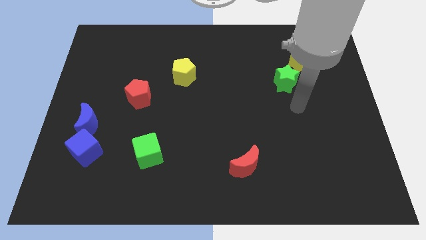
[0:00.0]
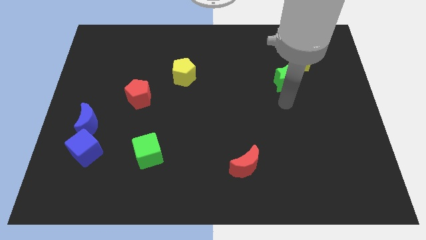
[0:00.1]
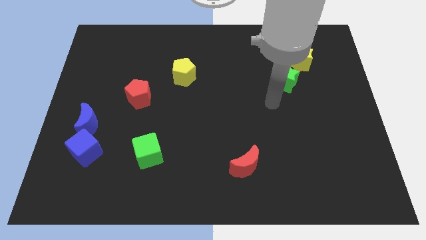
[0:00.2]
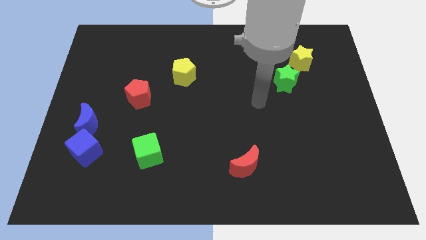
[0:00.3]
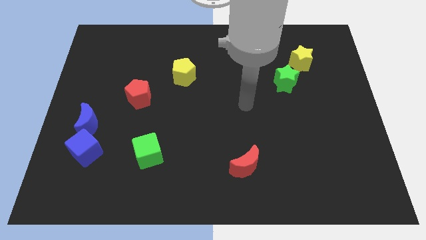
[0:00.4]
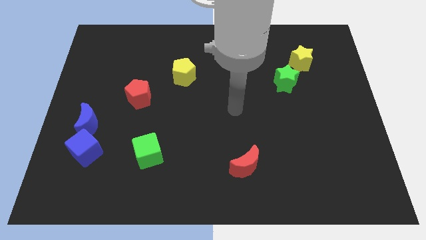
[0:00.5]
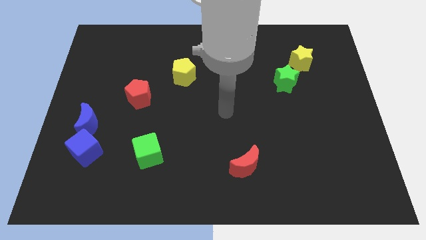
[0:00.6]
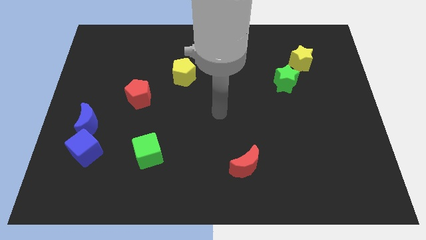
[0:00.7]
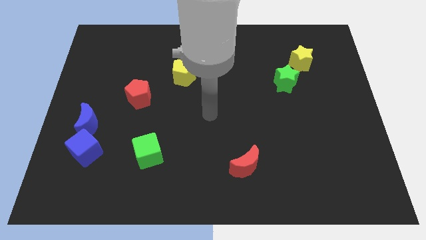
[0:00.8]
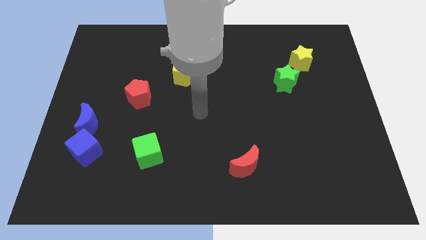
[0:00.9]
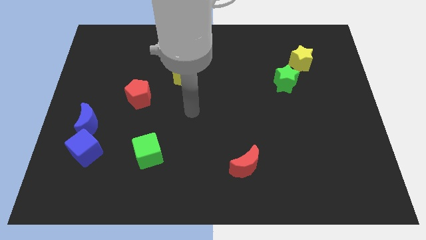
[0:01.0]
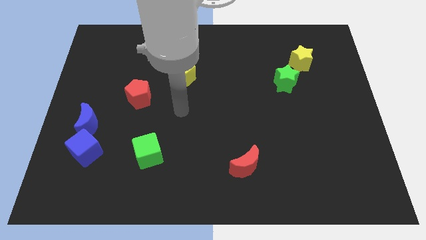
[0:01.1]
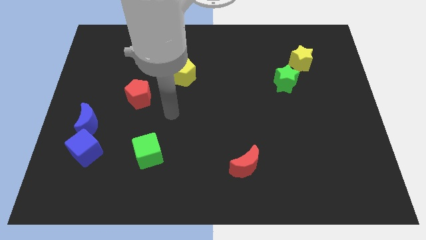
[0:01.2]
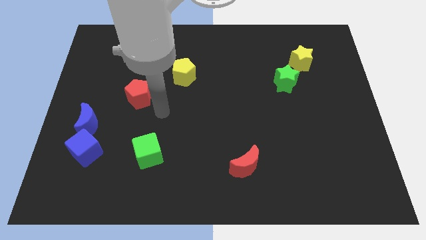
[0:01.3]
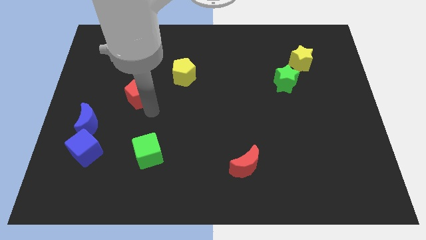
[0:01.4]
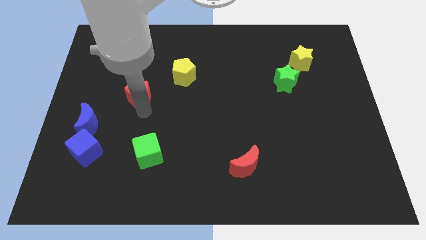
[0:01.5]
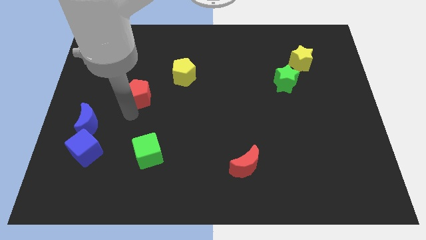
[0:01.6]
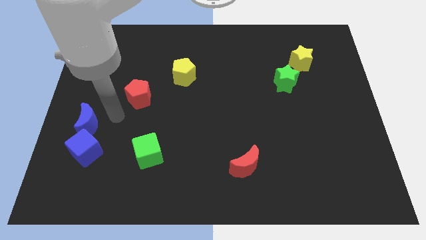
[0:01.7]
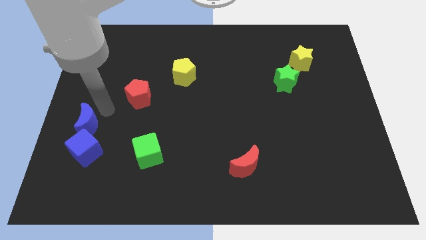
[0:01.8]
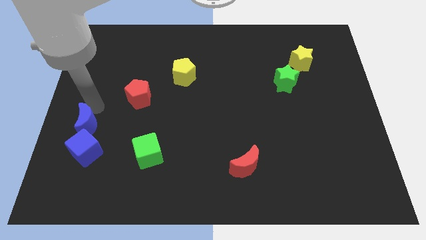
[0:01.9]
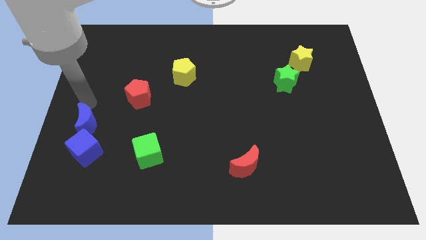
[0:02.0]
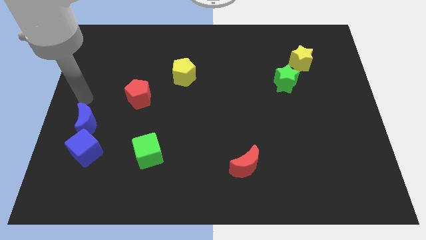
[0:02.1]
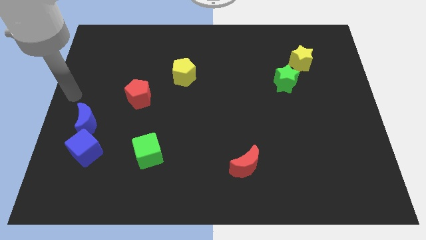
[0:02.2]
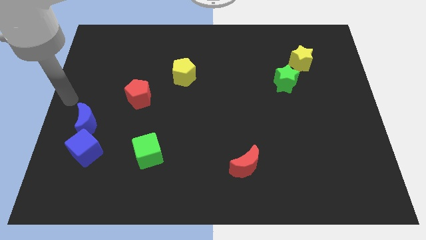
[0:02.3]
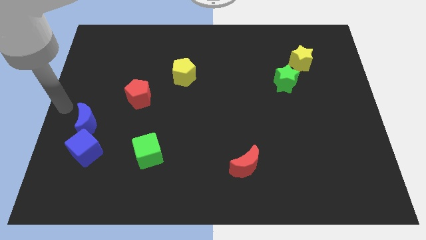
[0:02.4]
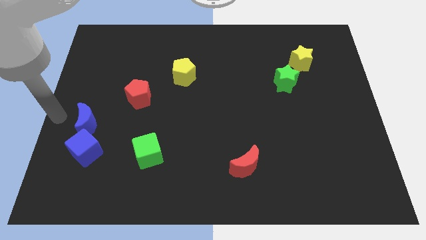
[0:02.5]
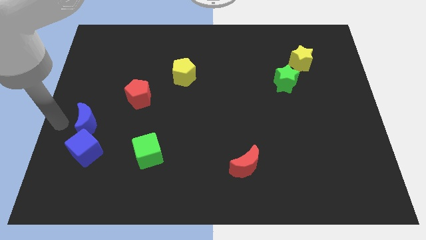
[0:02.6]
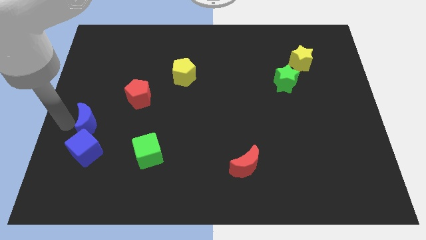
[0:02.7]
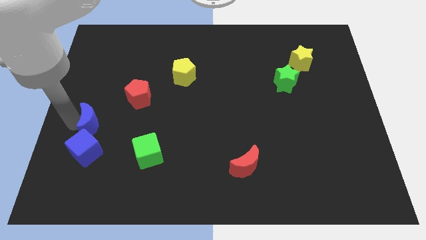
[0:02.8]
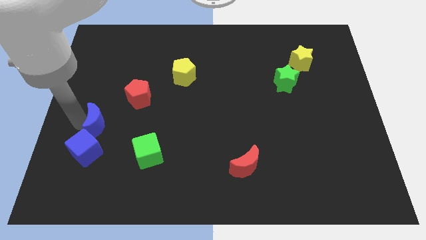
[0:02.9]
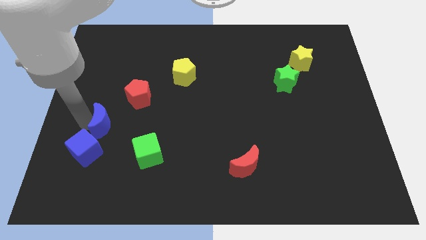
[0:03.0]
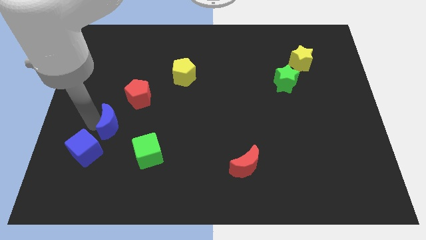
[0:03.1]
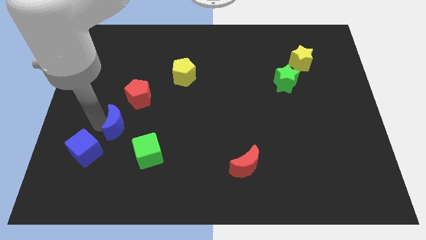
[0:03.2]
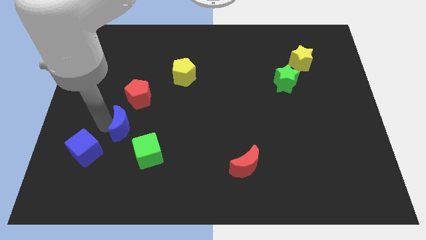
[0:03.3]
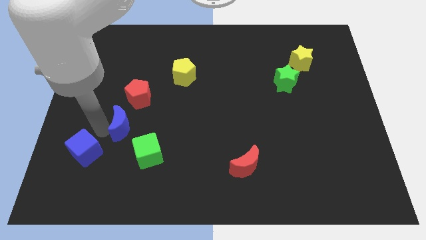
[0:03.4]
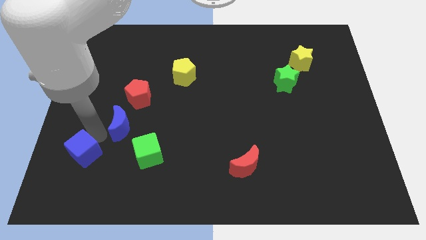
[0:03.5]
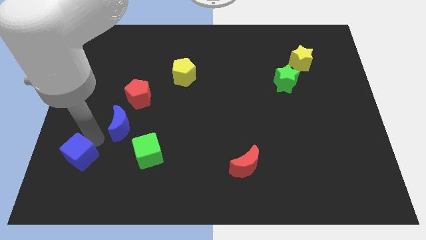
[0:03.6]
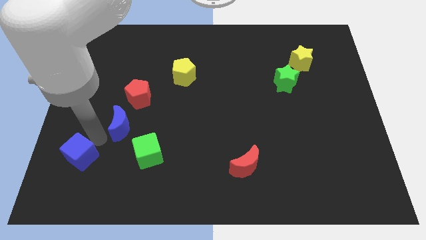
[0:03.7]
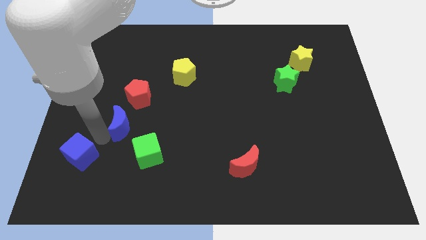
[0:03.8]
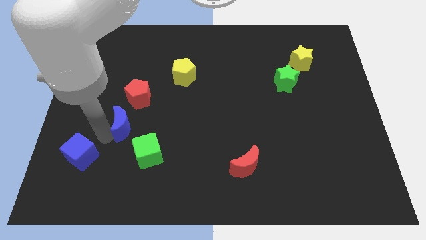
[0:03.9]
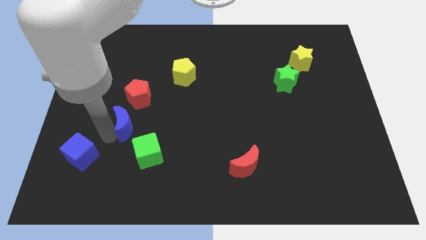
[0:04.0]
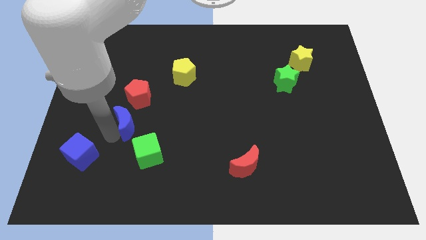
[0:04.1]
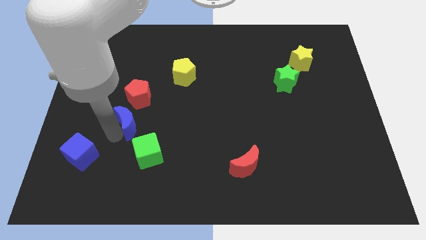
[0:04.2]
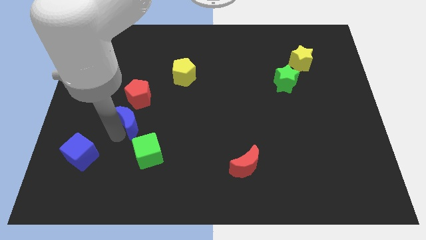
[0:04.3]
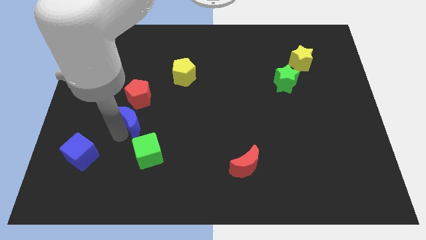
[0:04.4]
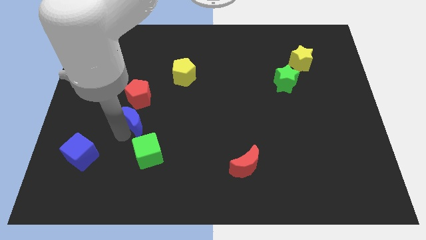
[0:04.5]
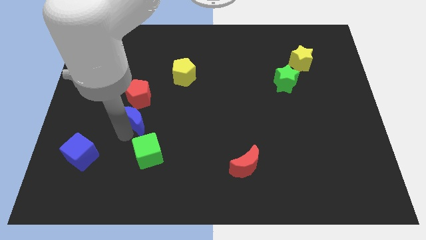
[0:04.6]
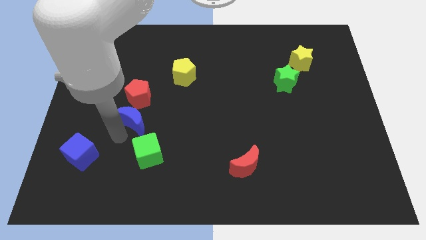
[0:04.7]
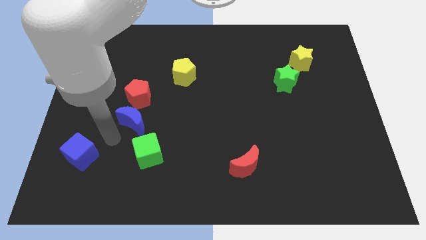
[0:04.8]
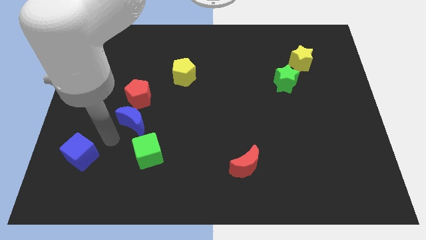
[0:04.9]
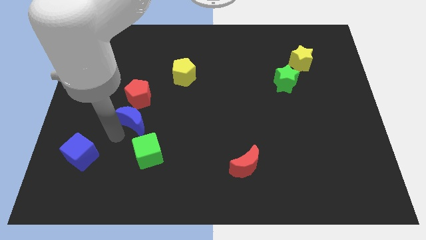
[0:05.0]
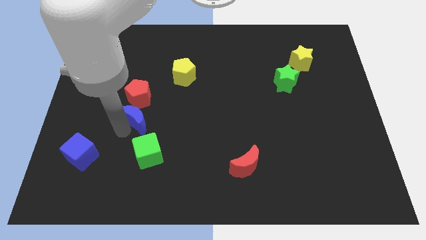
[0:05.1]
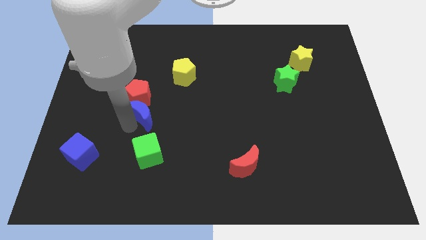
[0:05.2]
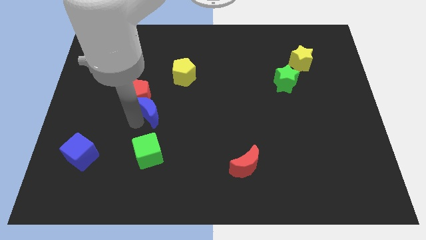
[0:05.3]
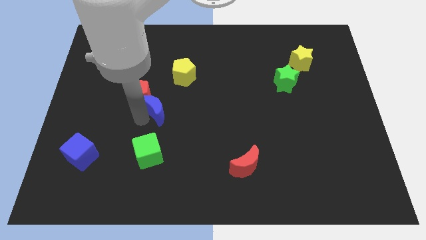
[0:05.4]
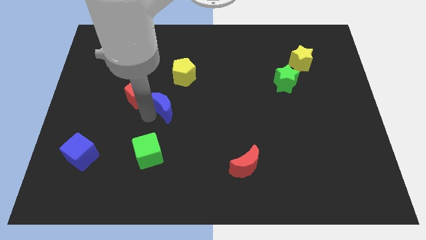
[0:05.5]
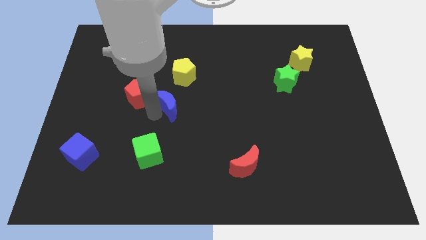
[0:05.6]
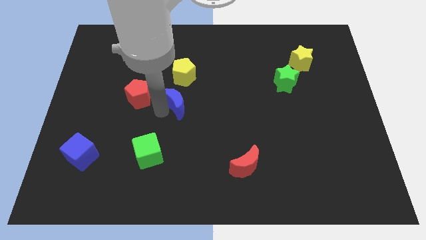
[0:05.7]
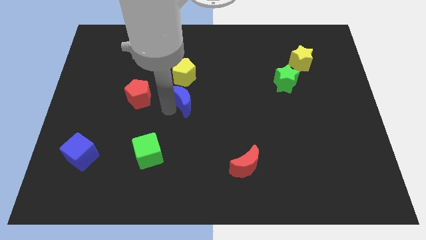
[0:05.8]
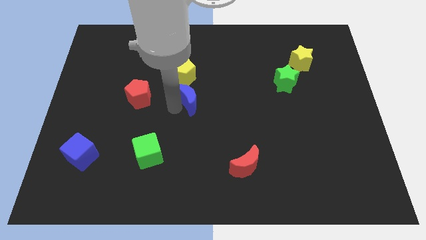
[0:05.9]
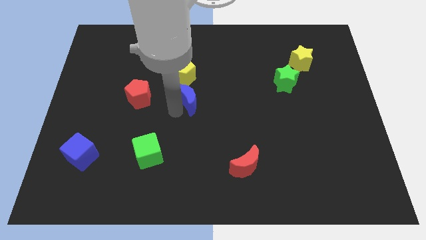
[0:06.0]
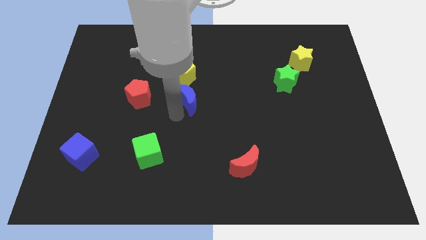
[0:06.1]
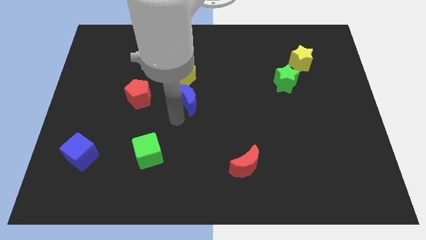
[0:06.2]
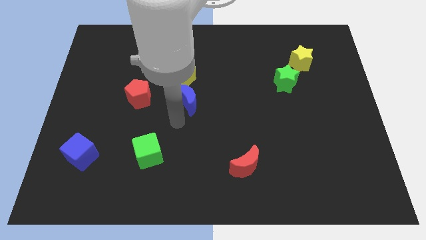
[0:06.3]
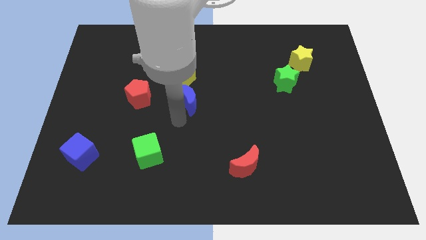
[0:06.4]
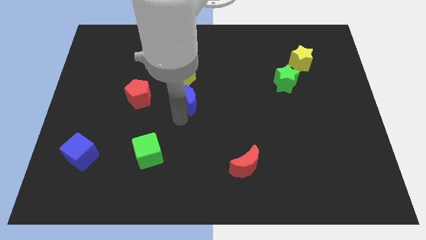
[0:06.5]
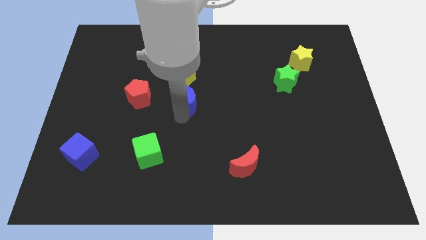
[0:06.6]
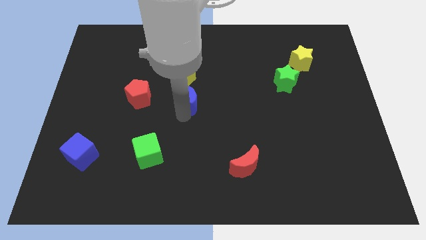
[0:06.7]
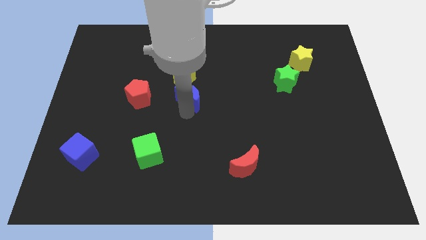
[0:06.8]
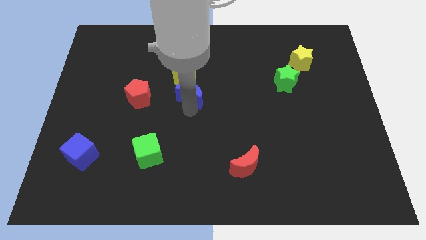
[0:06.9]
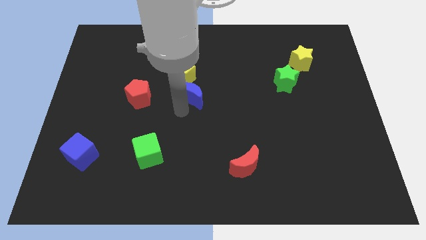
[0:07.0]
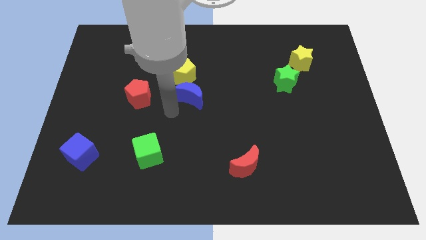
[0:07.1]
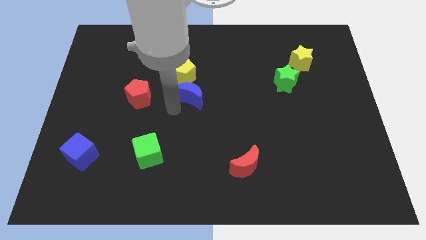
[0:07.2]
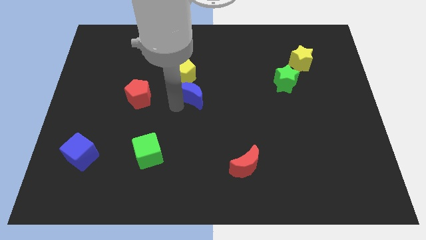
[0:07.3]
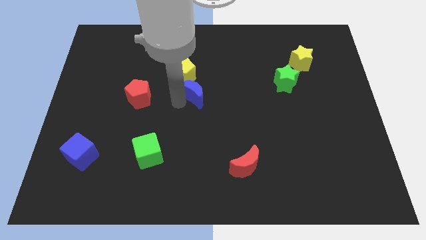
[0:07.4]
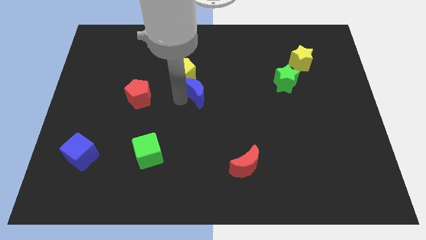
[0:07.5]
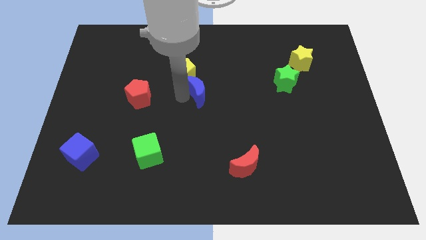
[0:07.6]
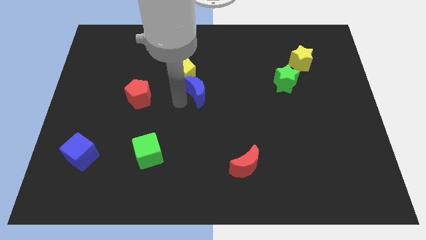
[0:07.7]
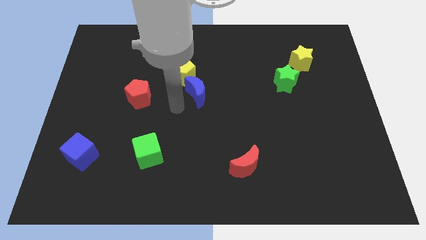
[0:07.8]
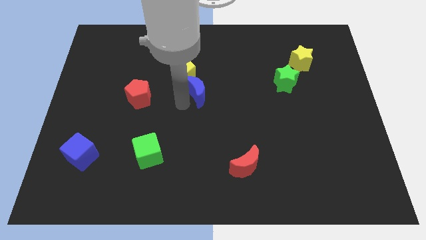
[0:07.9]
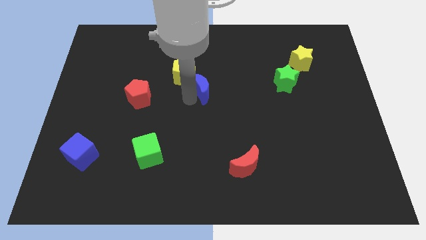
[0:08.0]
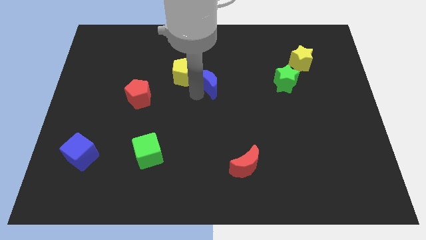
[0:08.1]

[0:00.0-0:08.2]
slide the blue moon to the right of the yellow pentagon
